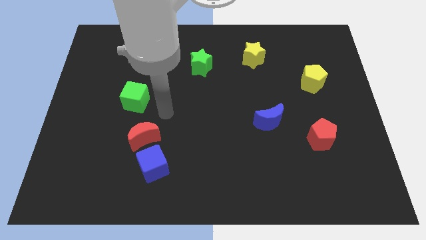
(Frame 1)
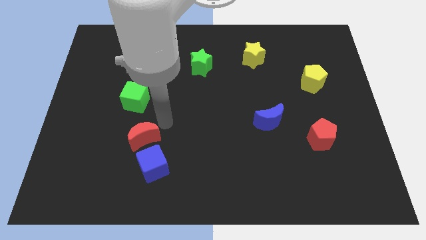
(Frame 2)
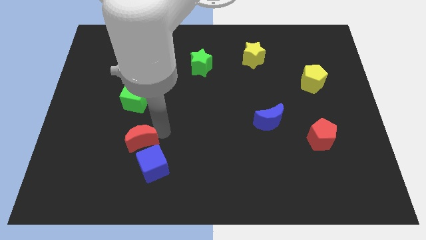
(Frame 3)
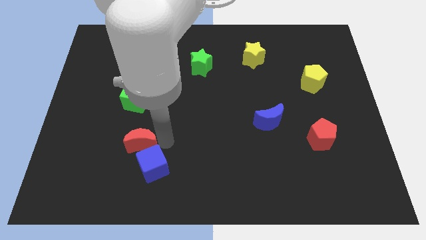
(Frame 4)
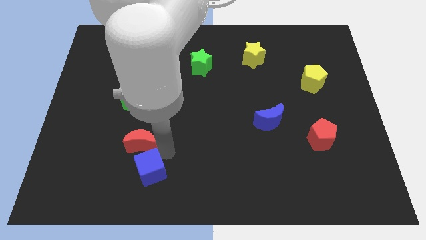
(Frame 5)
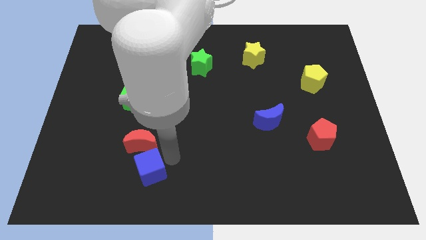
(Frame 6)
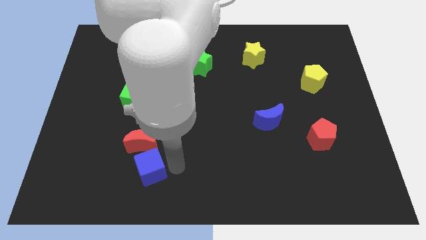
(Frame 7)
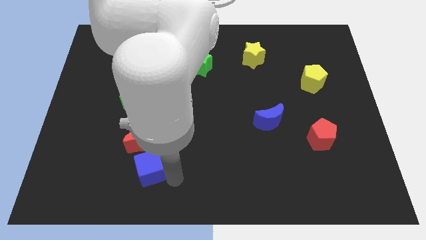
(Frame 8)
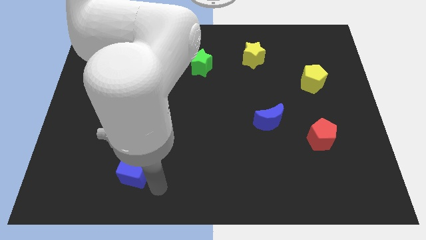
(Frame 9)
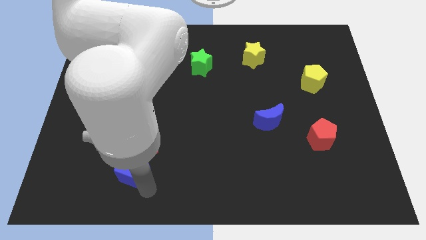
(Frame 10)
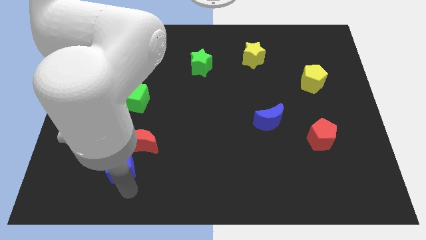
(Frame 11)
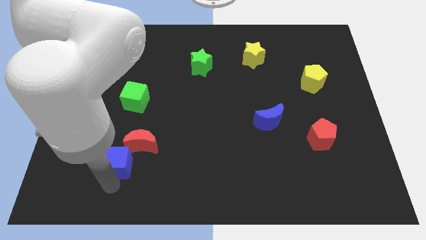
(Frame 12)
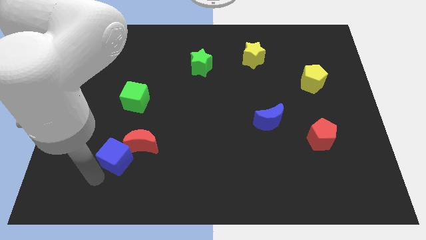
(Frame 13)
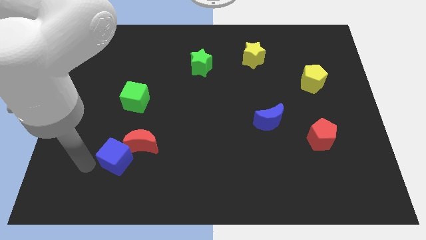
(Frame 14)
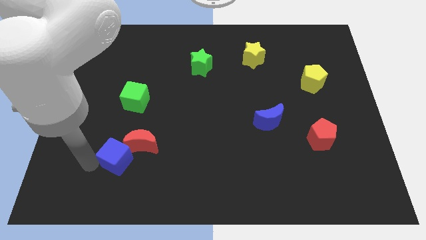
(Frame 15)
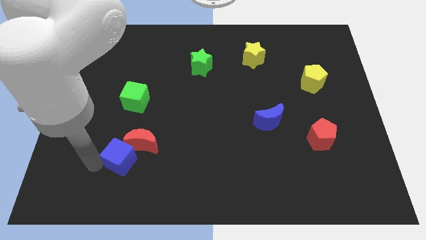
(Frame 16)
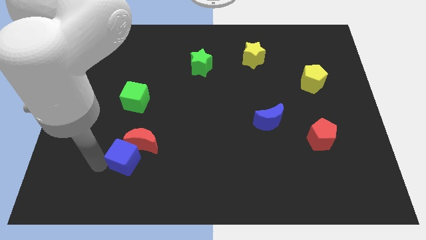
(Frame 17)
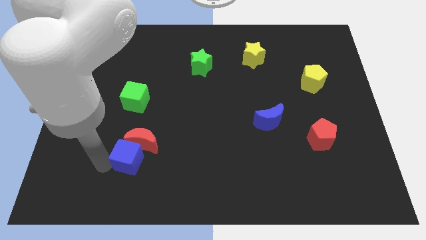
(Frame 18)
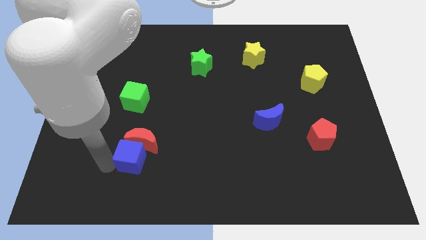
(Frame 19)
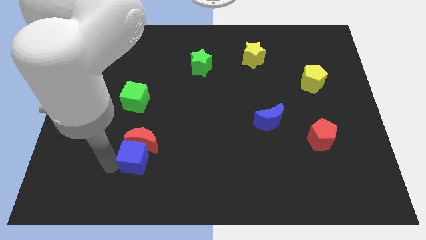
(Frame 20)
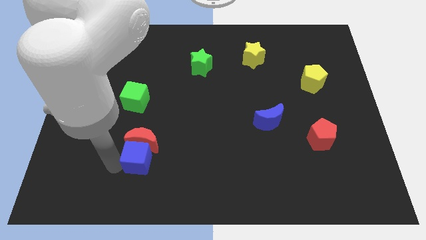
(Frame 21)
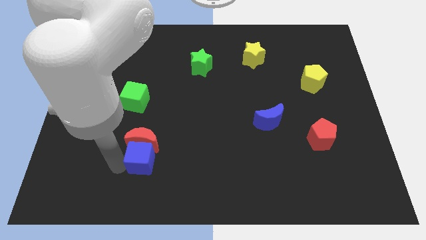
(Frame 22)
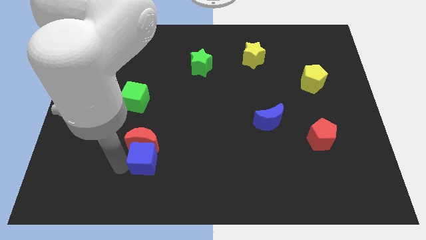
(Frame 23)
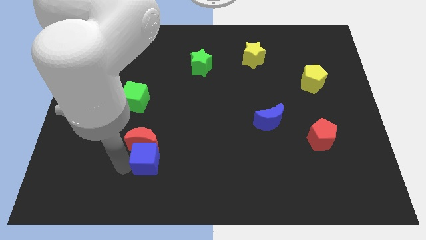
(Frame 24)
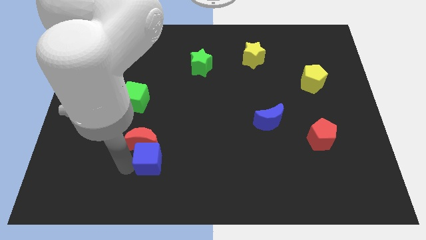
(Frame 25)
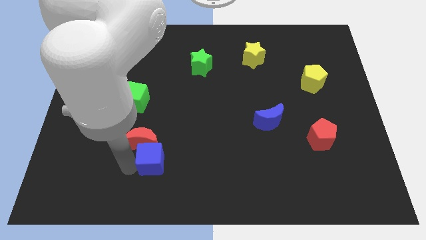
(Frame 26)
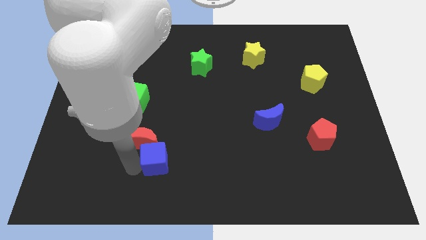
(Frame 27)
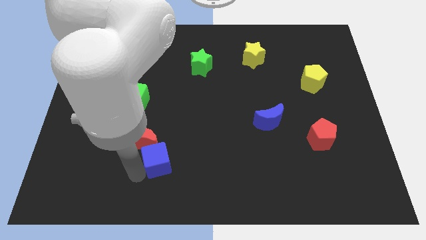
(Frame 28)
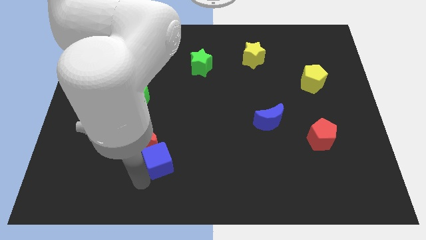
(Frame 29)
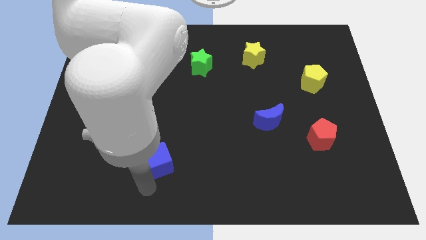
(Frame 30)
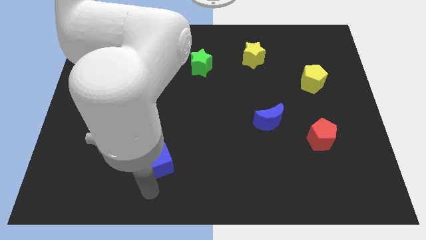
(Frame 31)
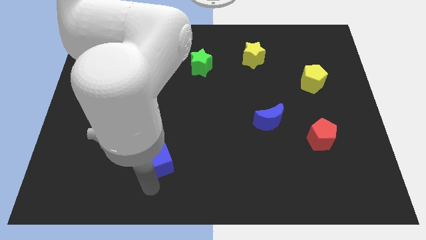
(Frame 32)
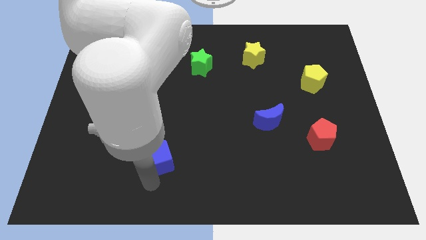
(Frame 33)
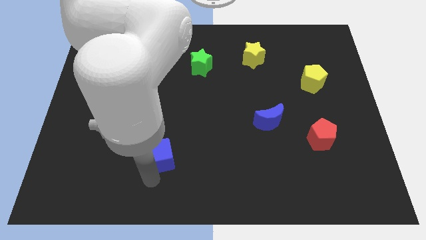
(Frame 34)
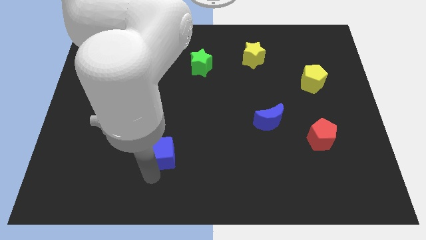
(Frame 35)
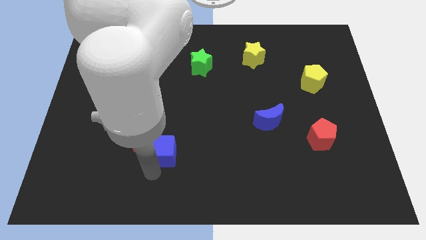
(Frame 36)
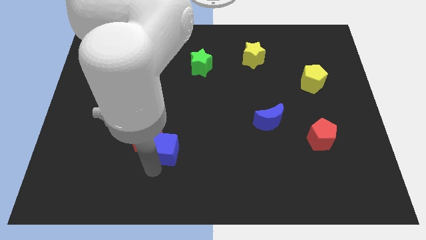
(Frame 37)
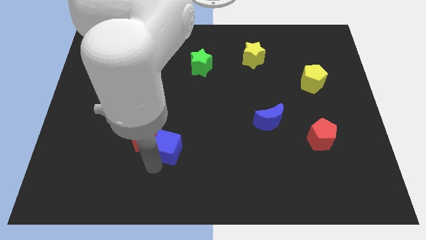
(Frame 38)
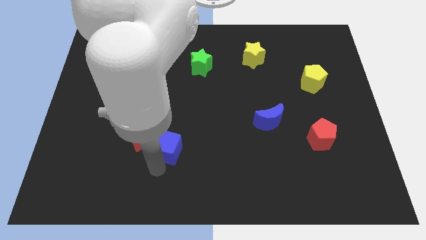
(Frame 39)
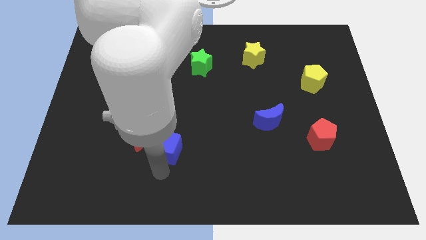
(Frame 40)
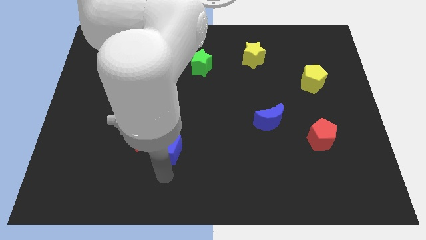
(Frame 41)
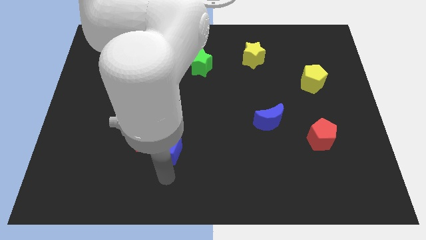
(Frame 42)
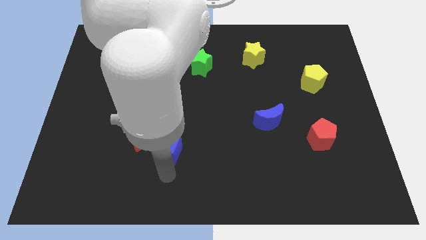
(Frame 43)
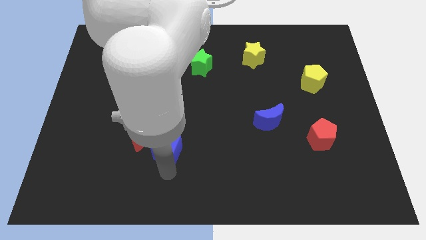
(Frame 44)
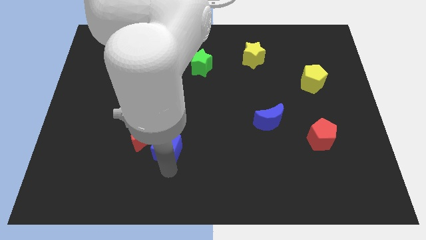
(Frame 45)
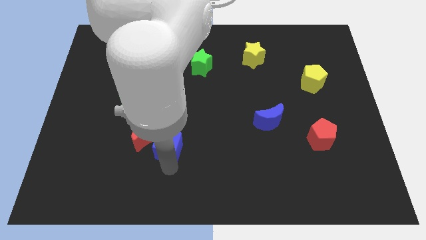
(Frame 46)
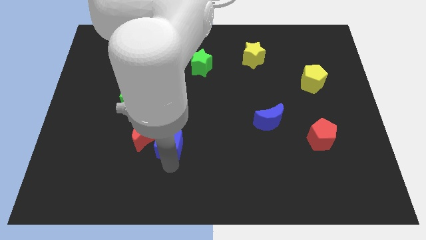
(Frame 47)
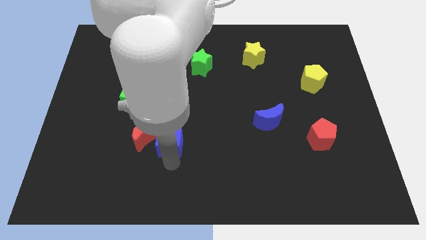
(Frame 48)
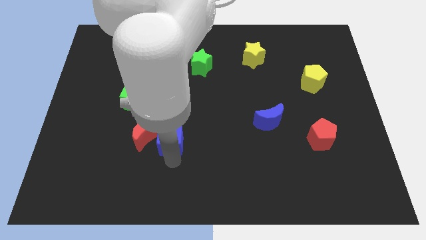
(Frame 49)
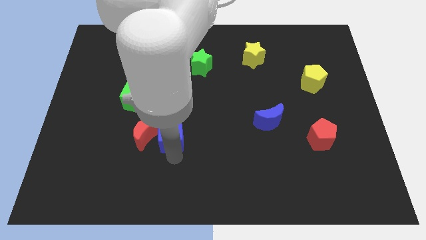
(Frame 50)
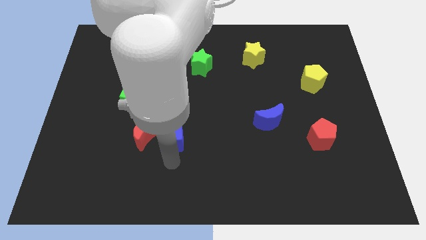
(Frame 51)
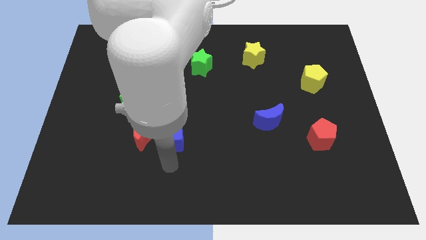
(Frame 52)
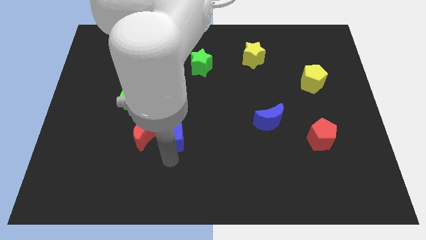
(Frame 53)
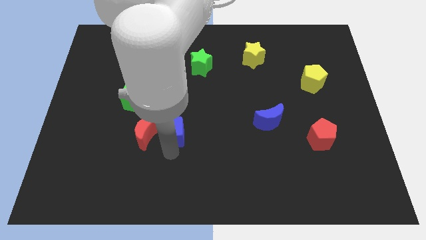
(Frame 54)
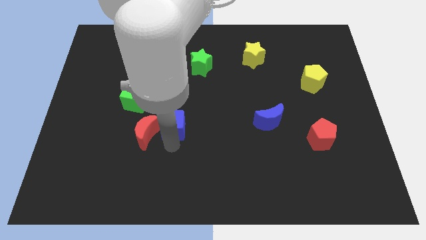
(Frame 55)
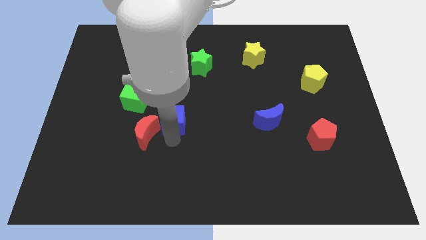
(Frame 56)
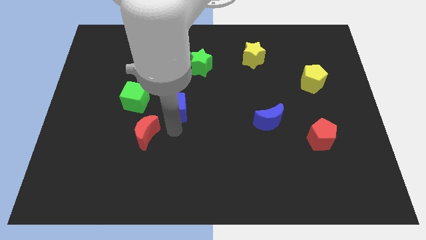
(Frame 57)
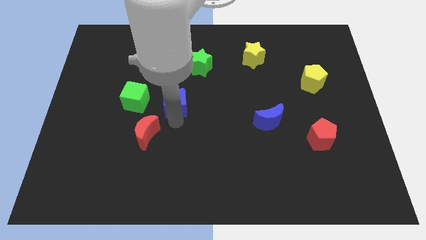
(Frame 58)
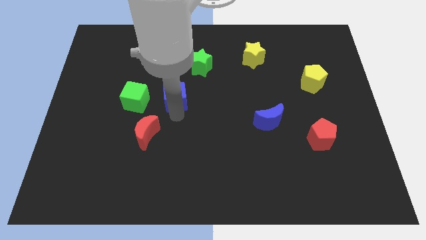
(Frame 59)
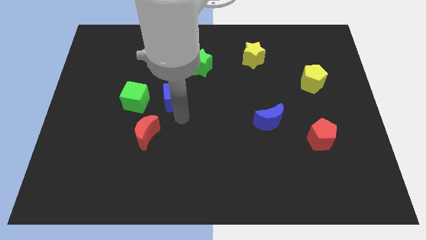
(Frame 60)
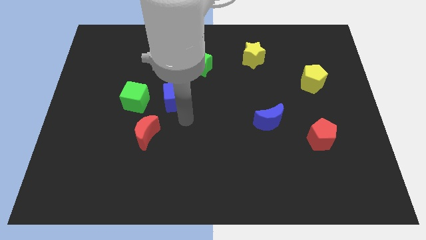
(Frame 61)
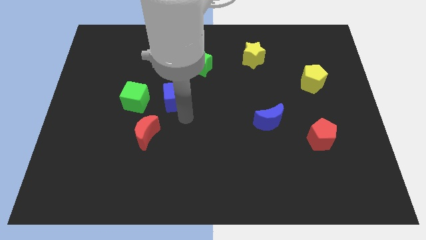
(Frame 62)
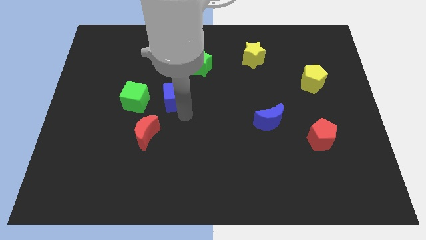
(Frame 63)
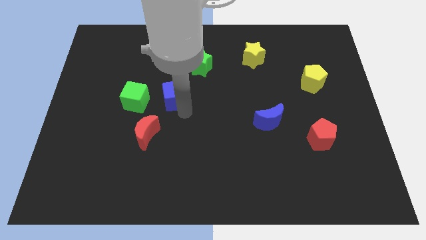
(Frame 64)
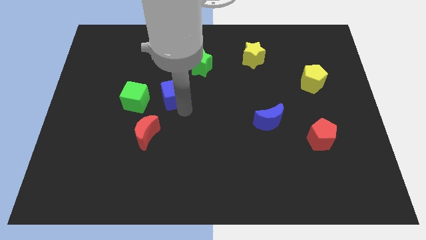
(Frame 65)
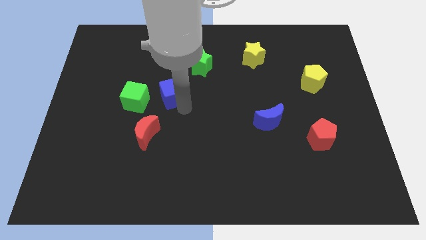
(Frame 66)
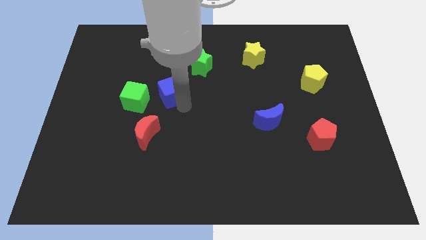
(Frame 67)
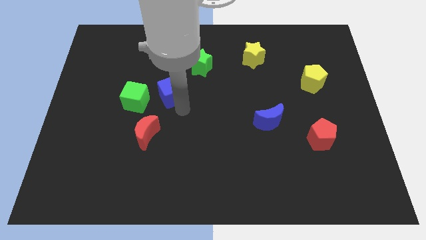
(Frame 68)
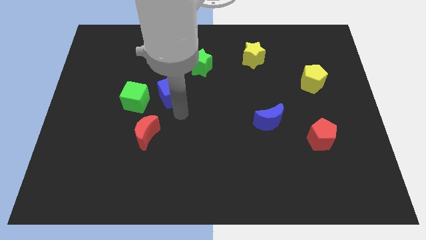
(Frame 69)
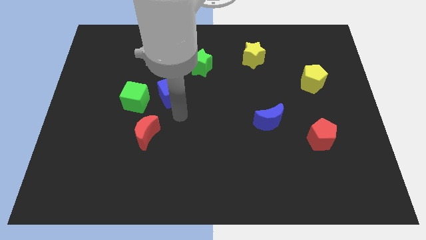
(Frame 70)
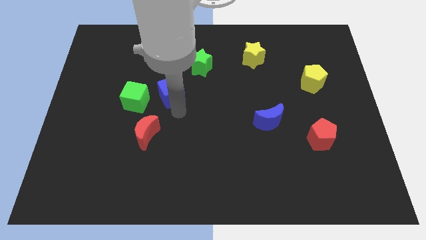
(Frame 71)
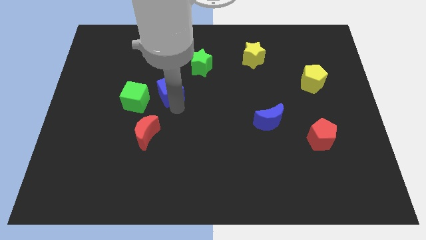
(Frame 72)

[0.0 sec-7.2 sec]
push the blue cube up

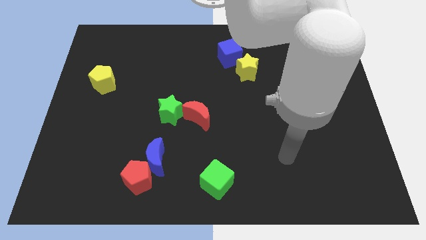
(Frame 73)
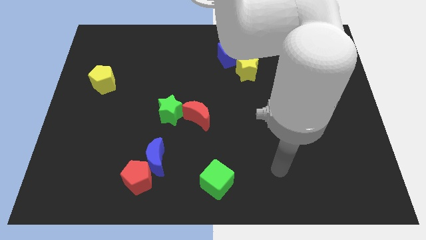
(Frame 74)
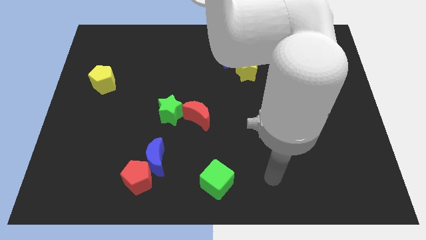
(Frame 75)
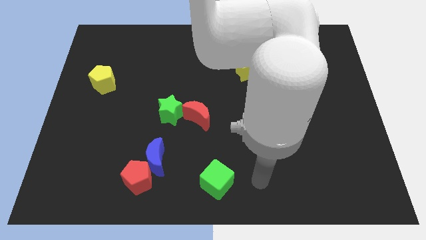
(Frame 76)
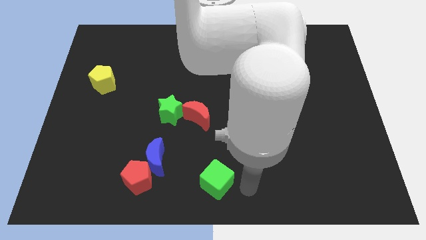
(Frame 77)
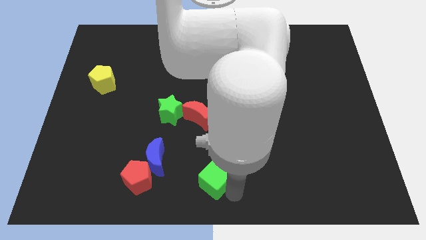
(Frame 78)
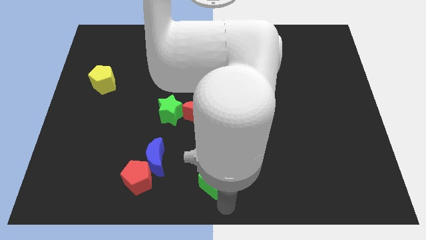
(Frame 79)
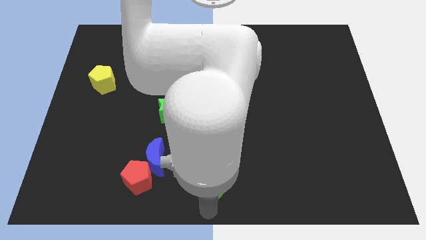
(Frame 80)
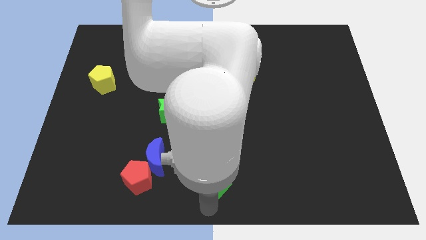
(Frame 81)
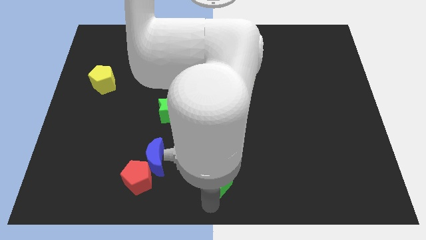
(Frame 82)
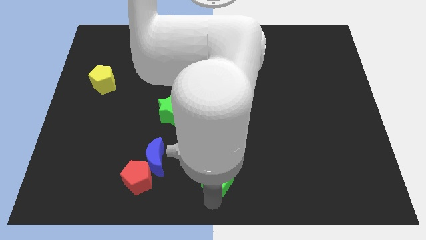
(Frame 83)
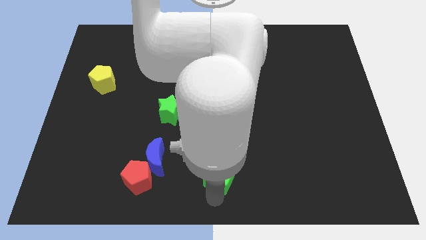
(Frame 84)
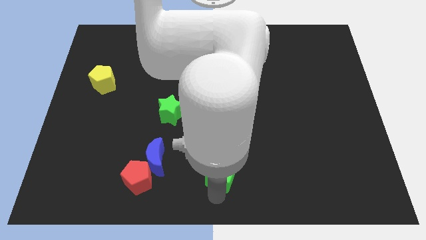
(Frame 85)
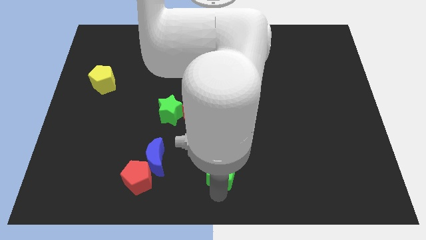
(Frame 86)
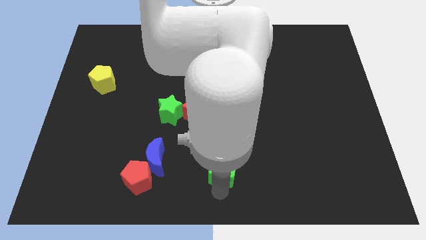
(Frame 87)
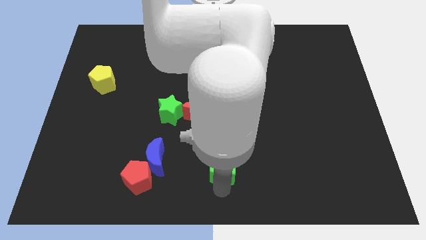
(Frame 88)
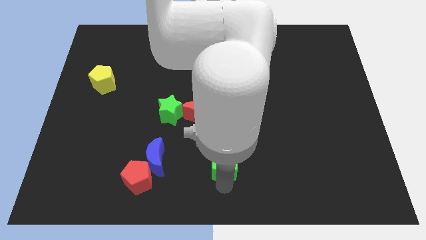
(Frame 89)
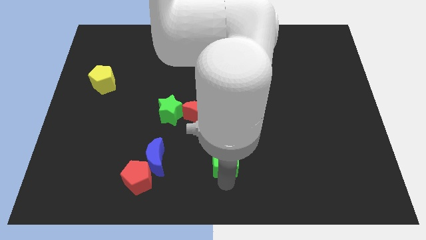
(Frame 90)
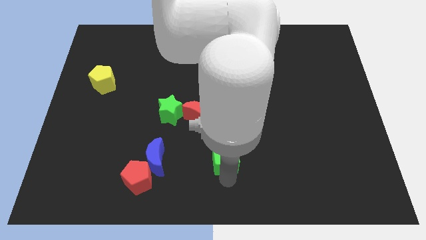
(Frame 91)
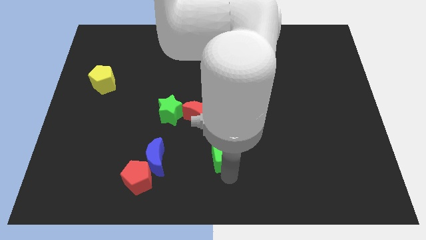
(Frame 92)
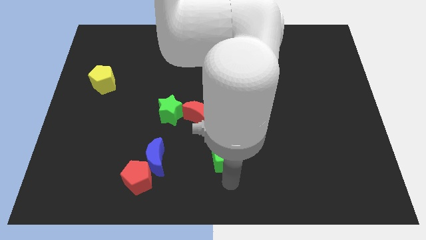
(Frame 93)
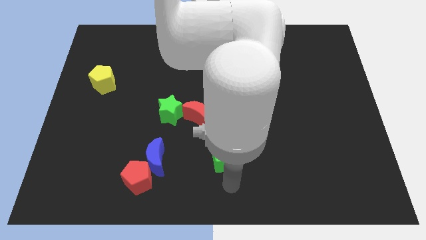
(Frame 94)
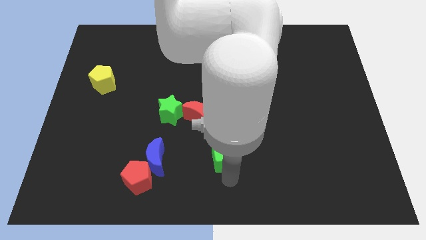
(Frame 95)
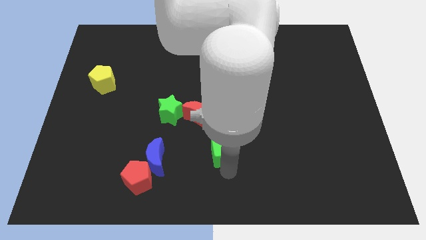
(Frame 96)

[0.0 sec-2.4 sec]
slide the green cube a little up
